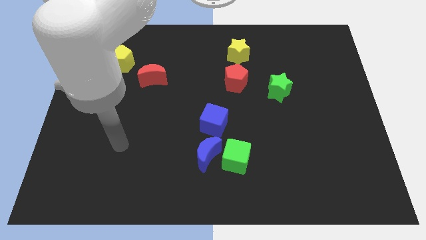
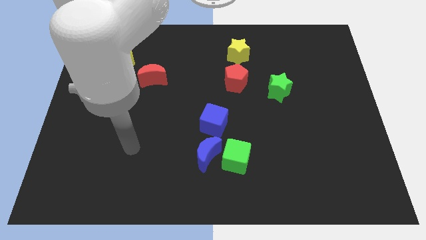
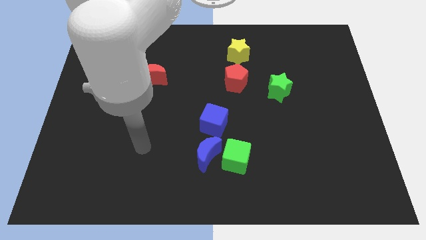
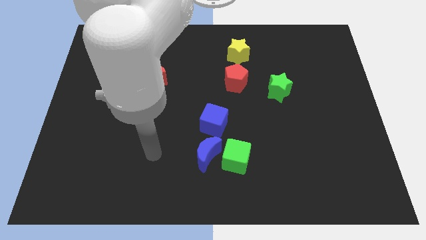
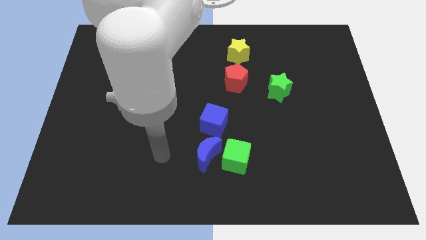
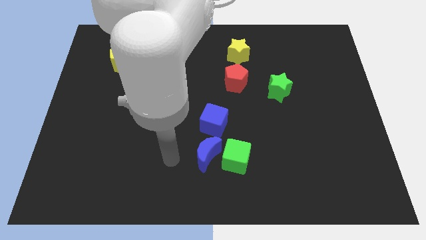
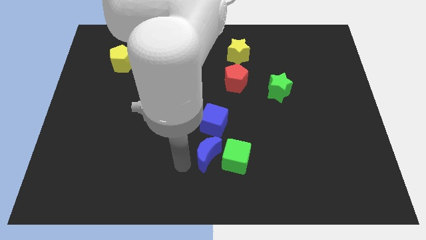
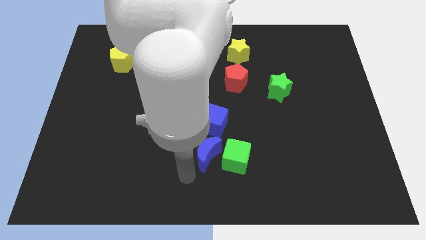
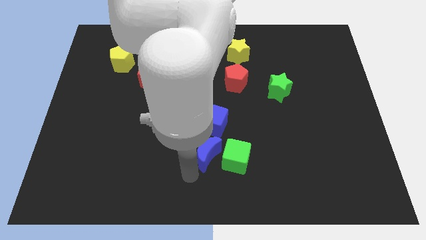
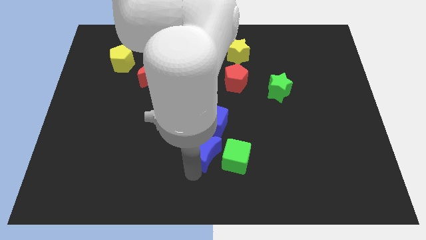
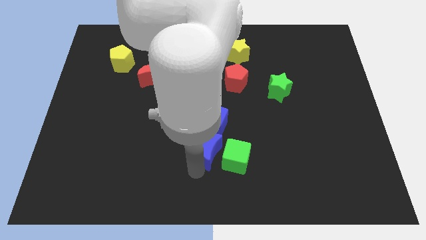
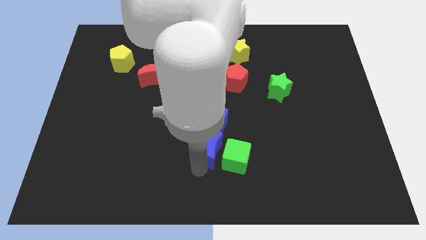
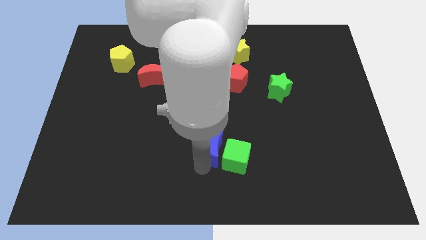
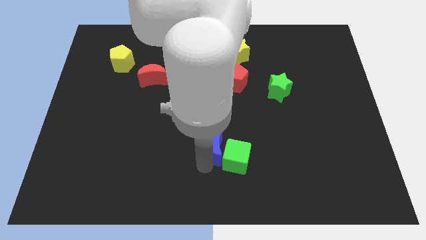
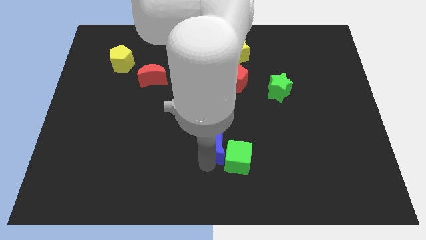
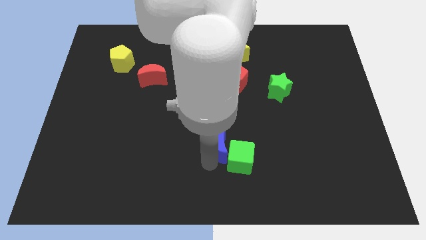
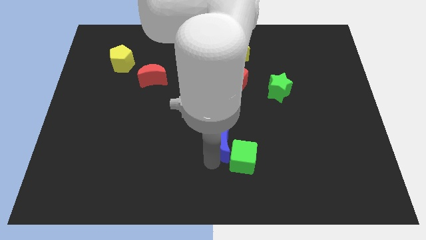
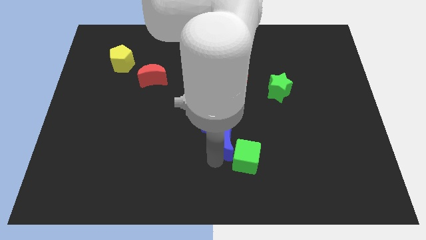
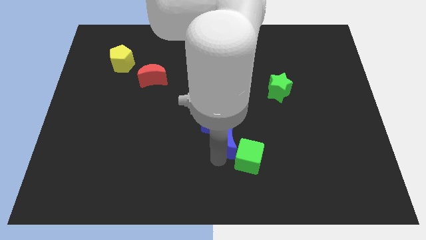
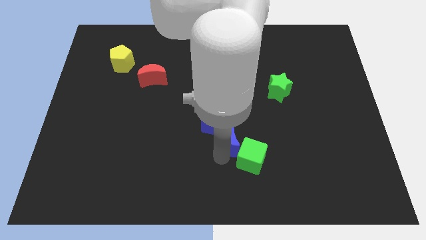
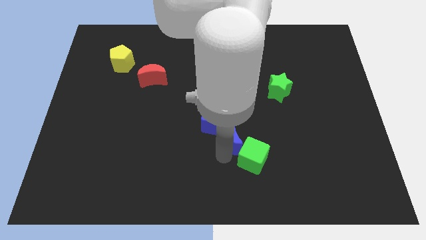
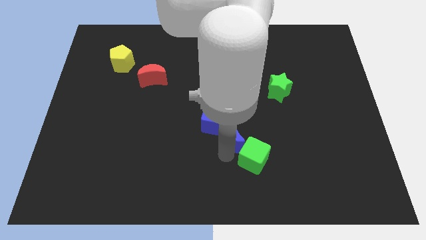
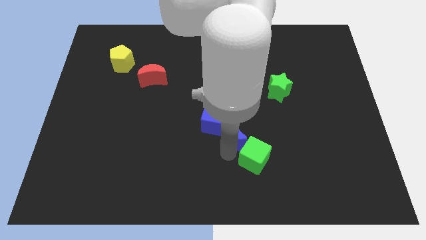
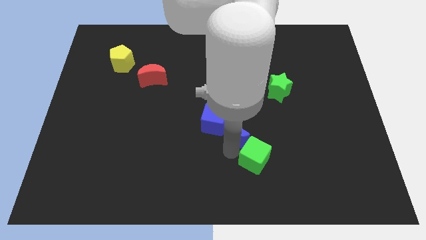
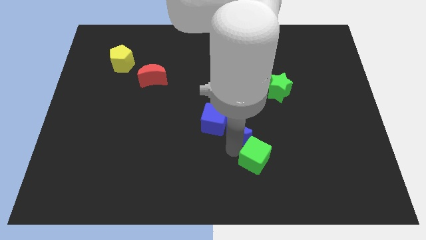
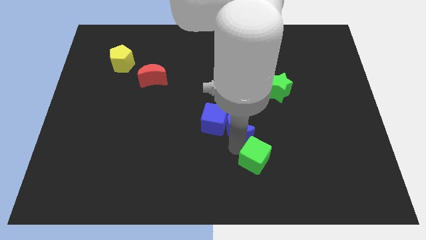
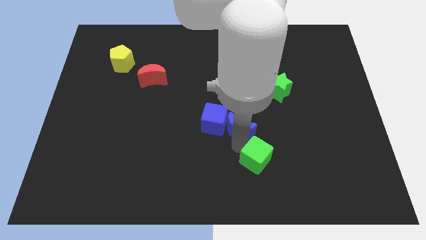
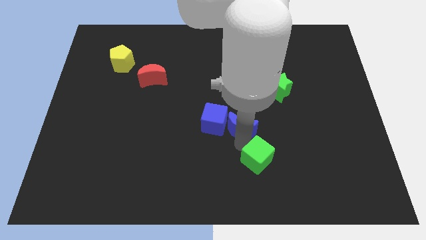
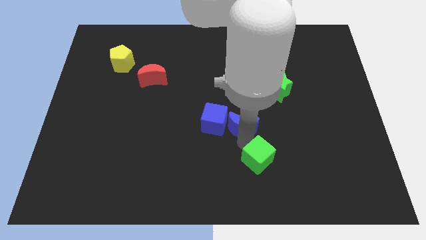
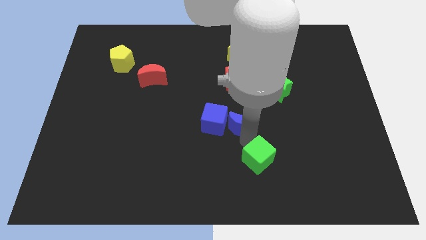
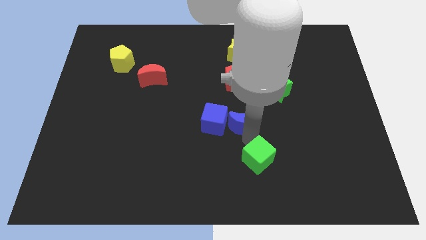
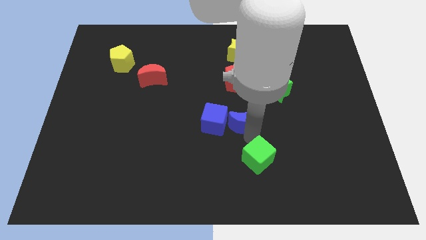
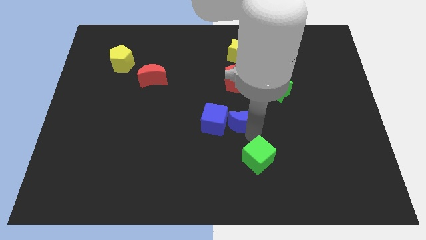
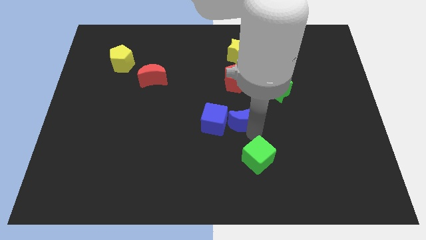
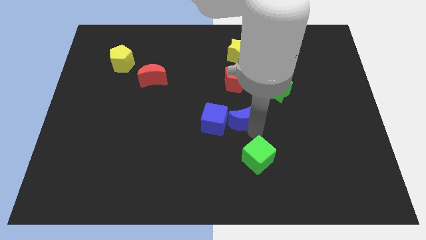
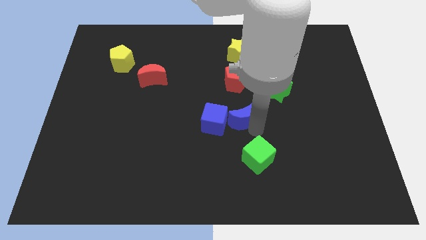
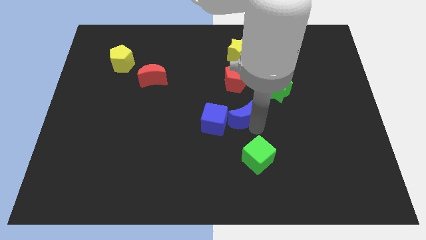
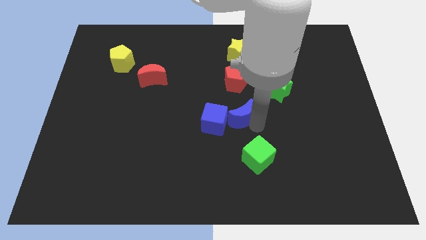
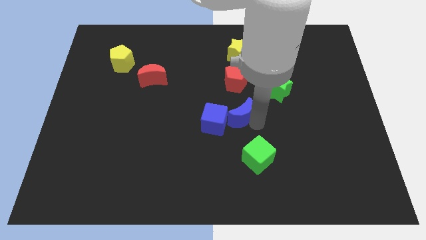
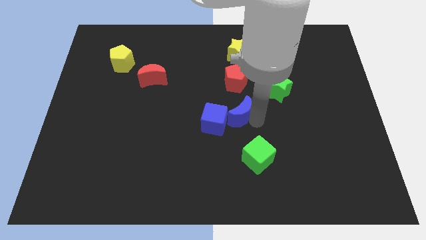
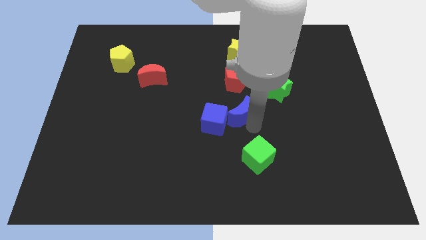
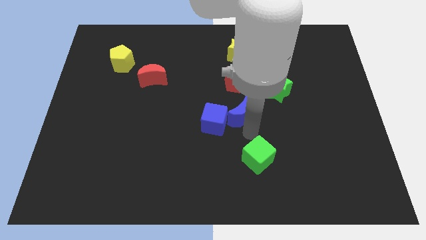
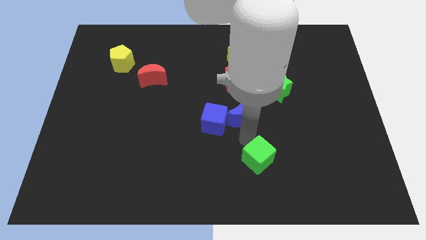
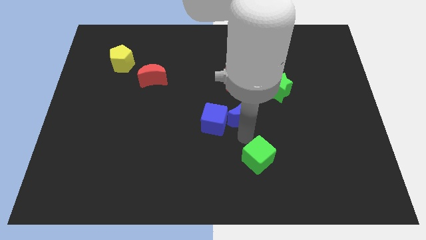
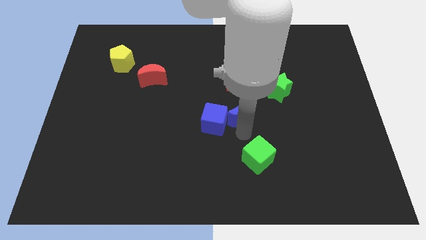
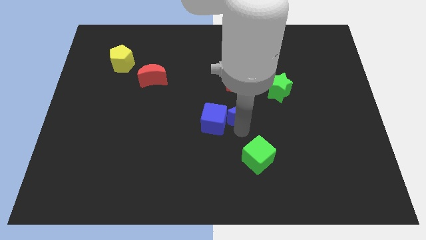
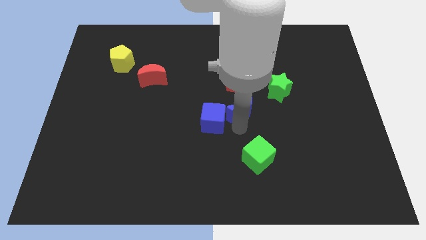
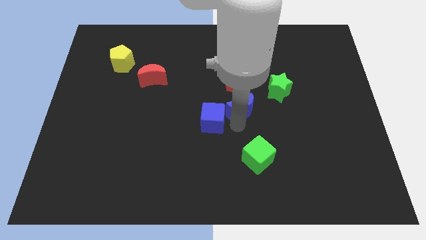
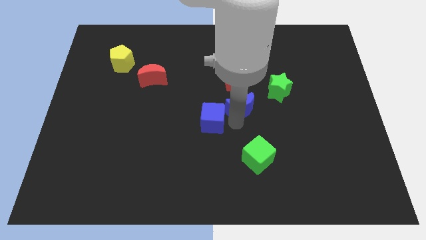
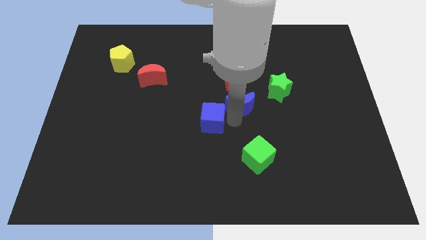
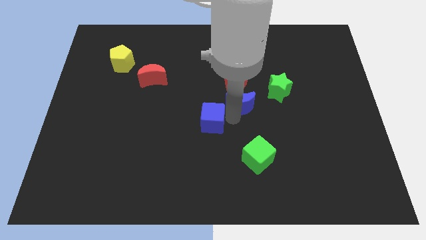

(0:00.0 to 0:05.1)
slide the blue moon left of the green star

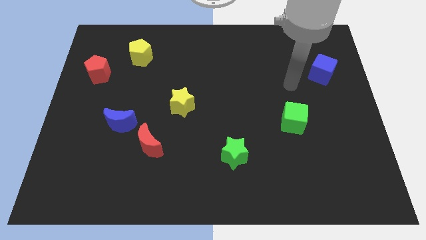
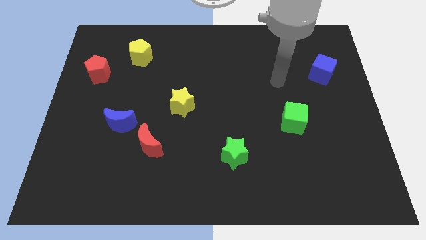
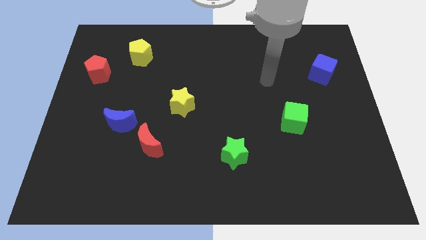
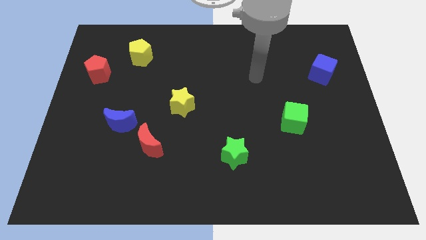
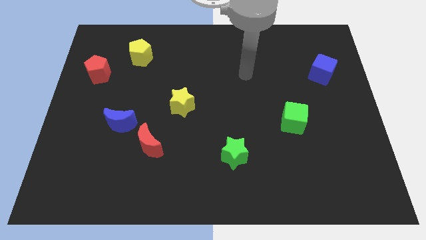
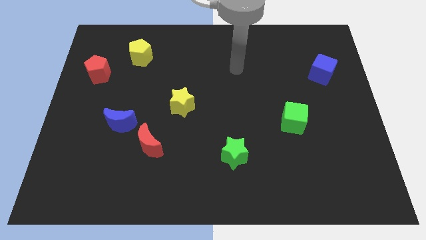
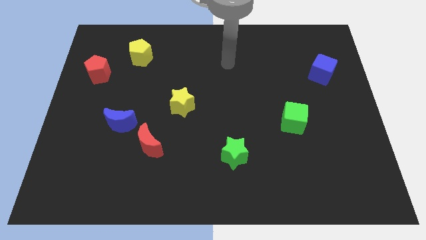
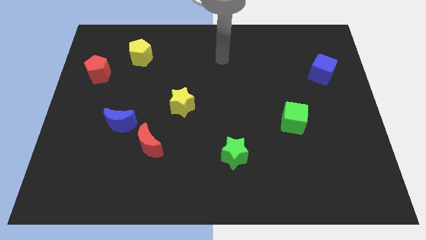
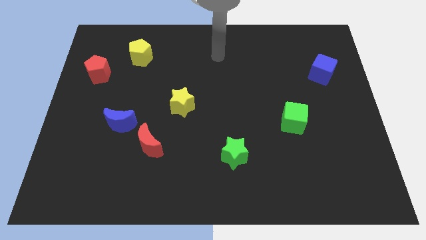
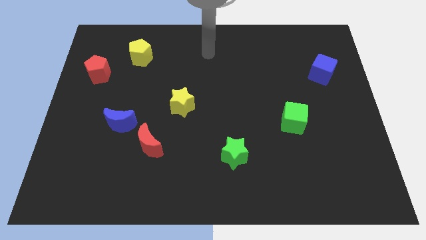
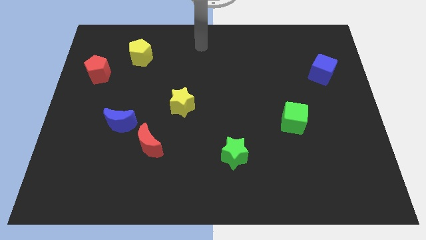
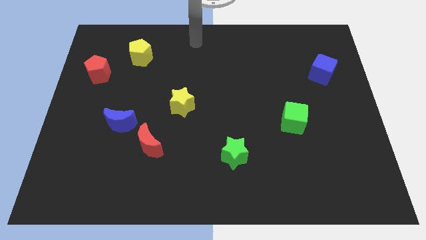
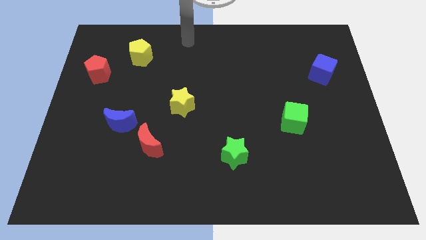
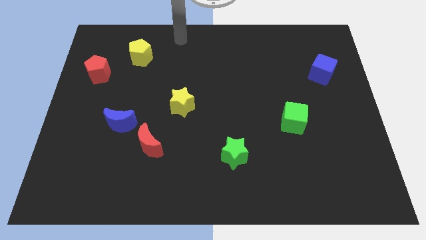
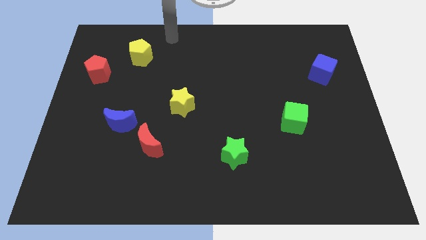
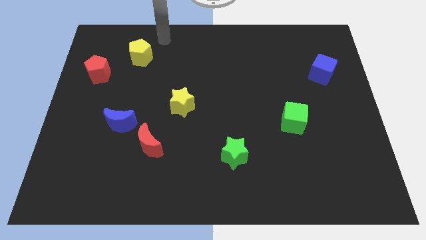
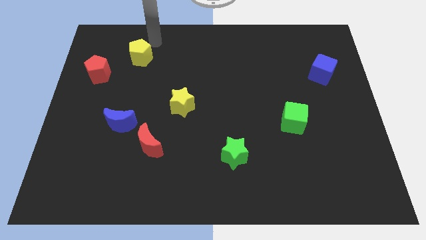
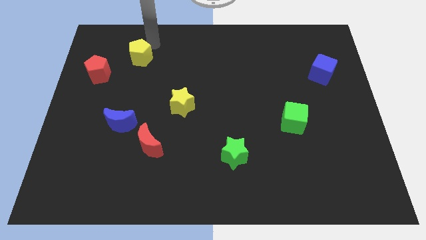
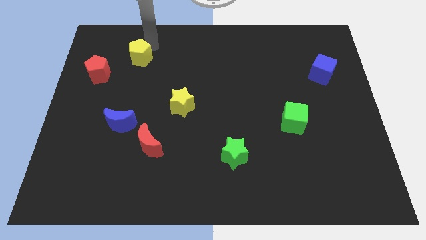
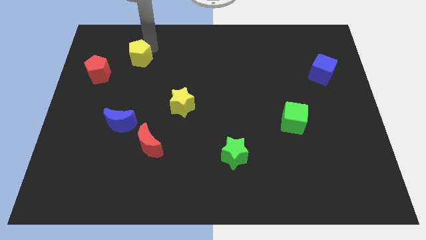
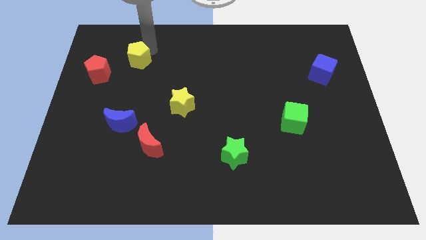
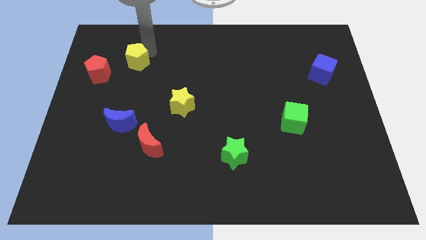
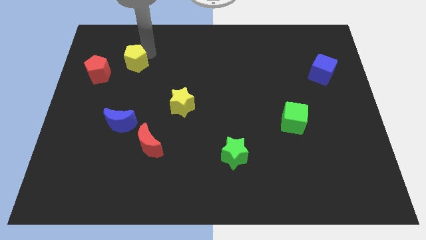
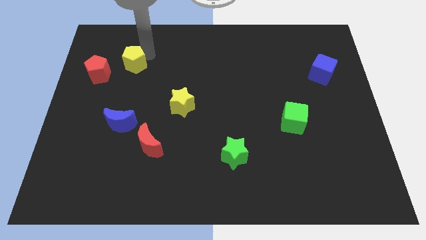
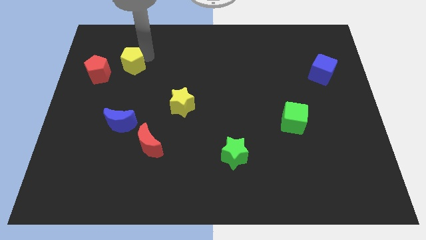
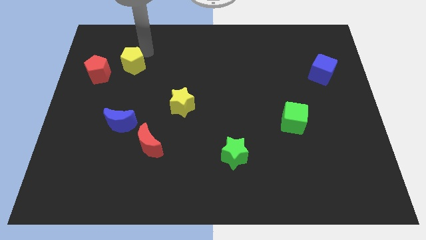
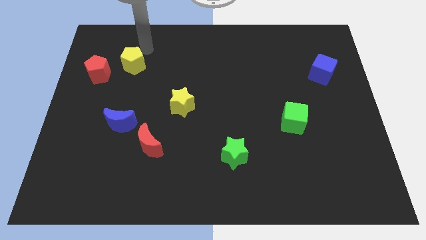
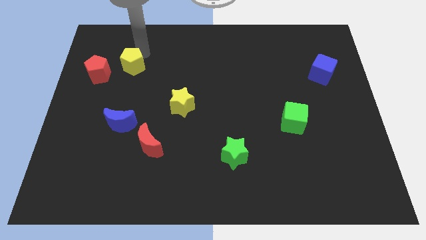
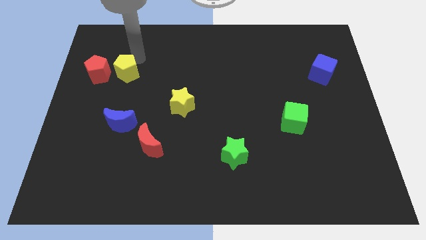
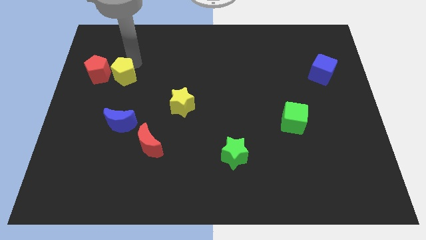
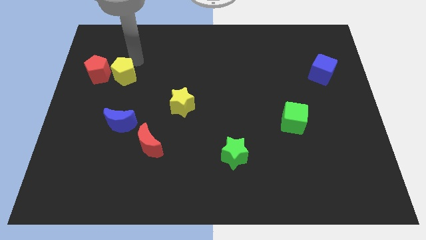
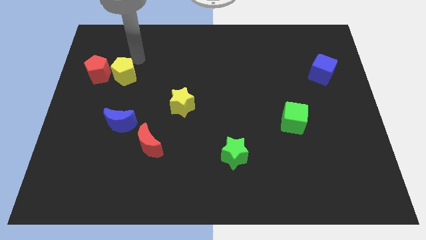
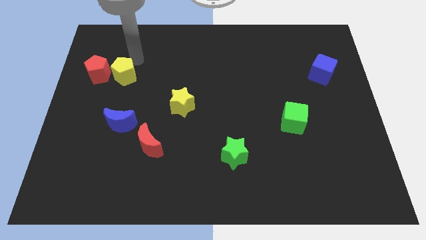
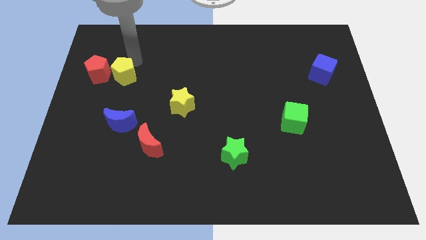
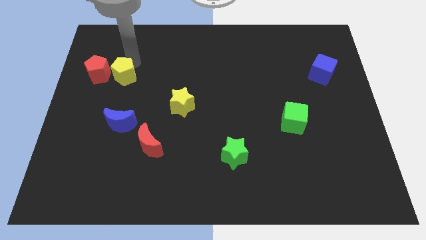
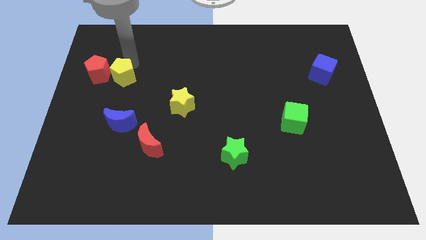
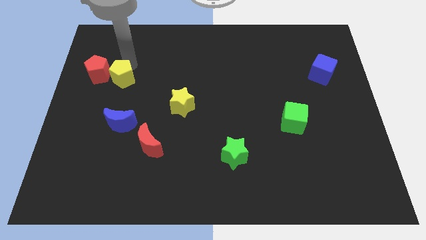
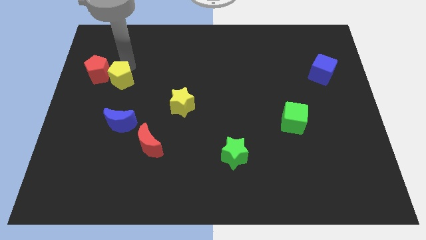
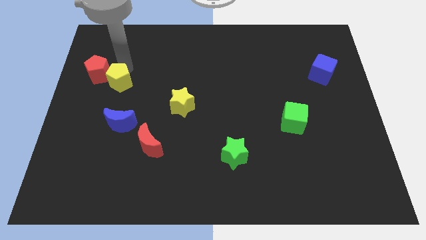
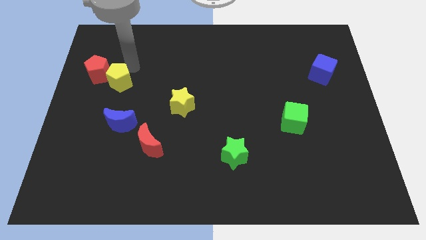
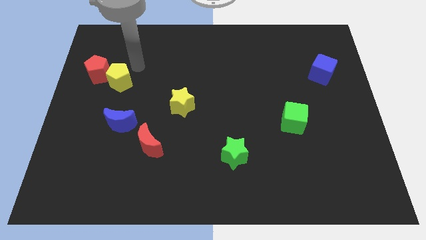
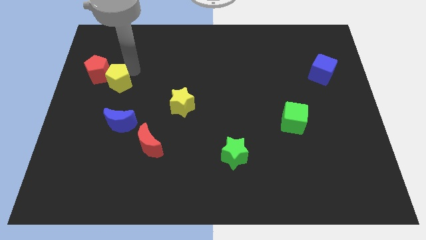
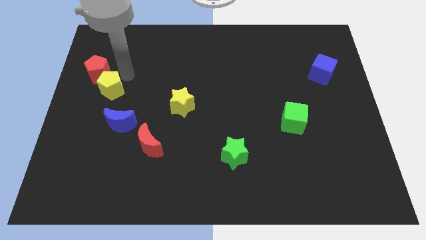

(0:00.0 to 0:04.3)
push the yellow pentagon to the bottom side of the red pentagon
